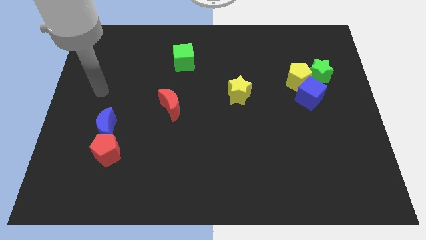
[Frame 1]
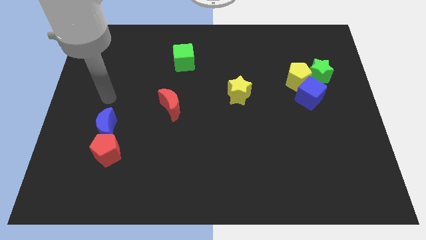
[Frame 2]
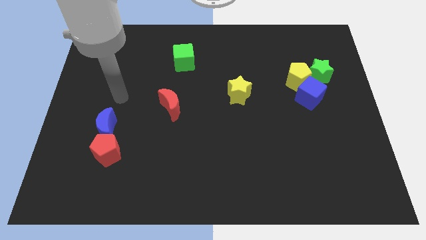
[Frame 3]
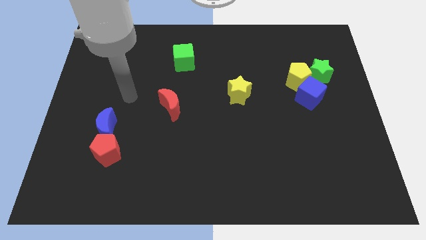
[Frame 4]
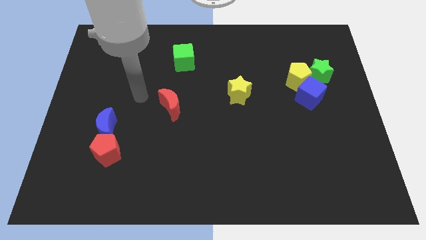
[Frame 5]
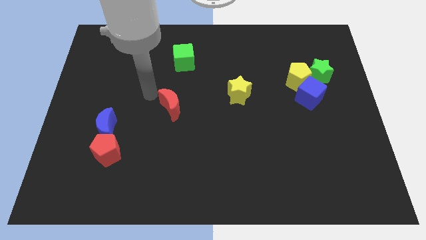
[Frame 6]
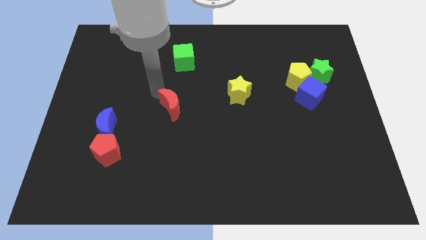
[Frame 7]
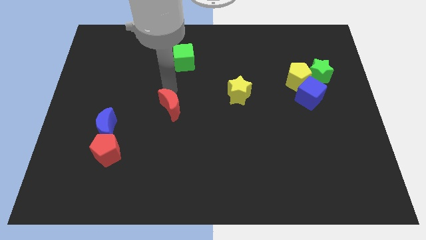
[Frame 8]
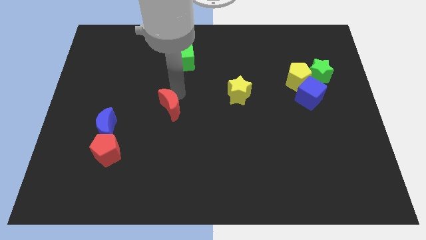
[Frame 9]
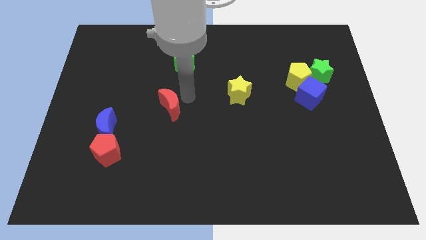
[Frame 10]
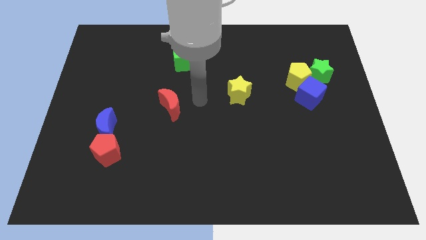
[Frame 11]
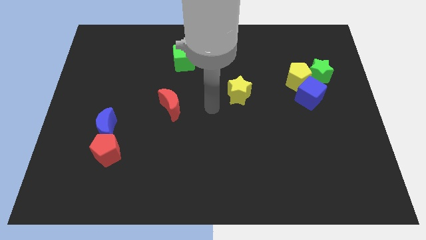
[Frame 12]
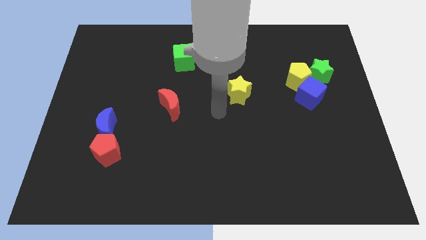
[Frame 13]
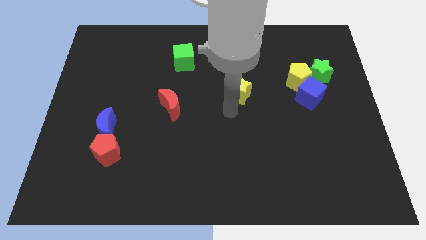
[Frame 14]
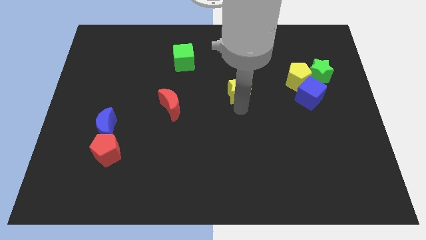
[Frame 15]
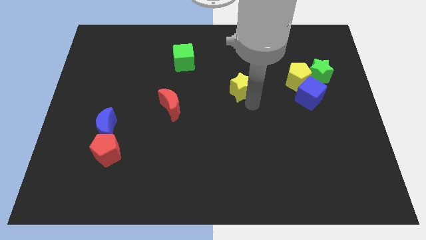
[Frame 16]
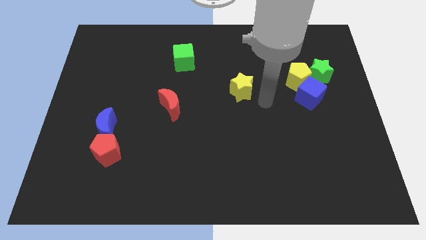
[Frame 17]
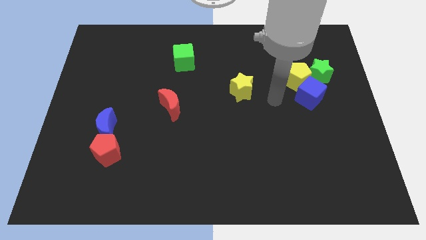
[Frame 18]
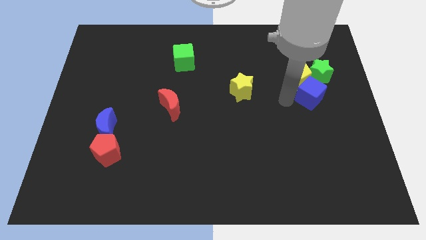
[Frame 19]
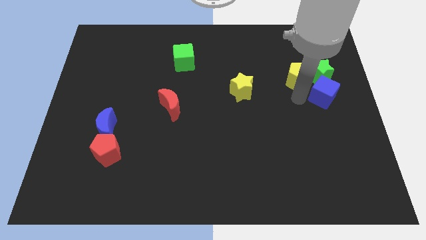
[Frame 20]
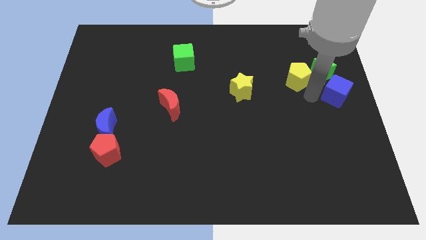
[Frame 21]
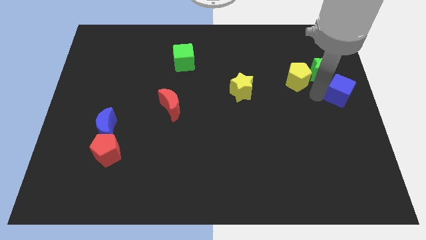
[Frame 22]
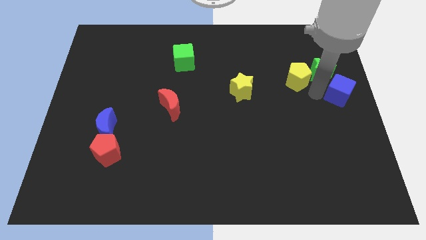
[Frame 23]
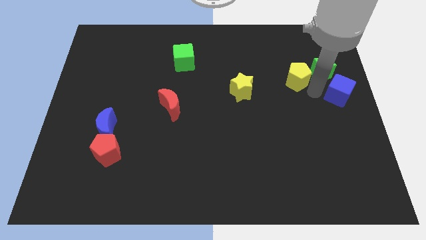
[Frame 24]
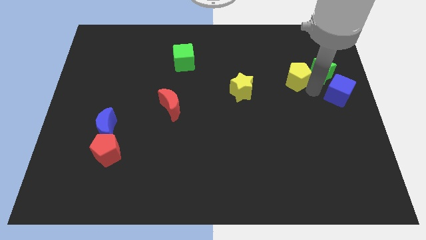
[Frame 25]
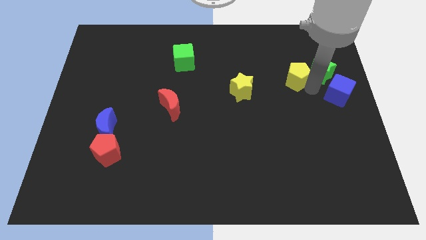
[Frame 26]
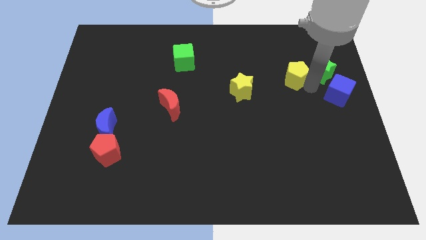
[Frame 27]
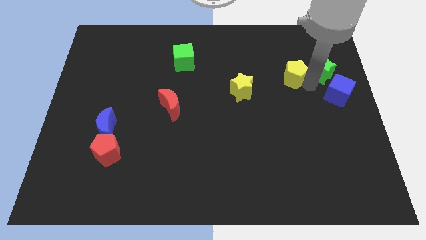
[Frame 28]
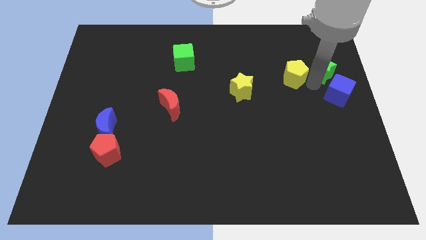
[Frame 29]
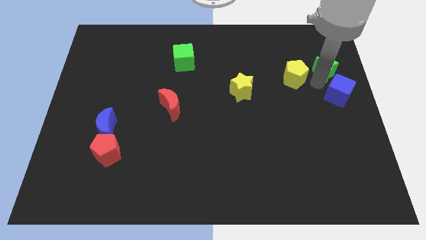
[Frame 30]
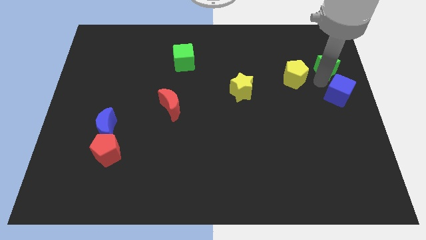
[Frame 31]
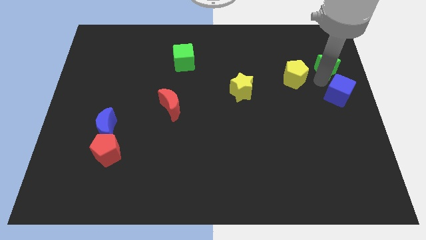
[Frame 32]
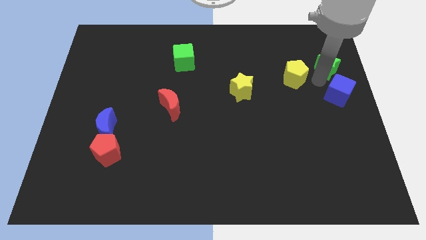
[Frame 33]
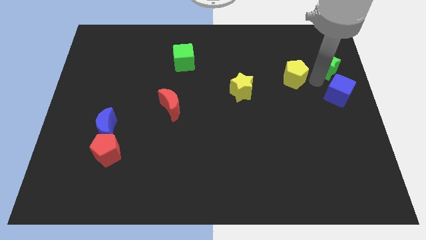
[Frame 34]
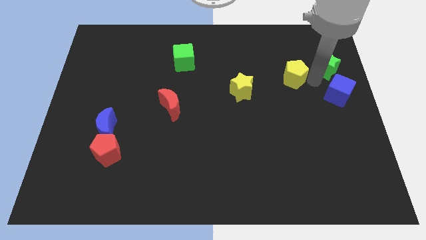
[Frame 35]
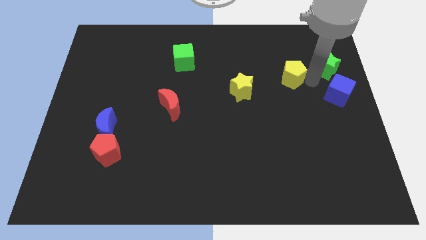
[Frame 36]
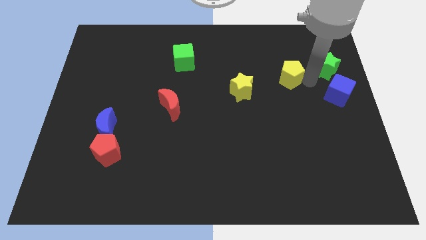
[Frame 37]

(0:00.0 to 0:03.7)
separate the yellow pentagon from the green star and blue cube

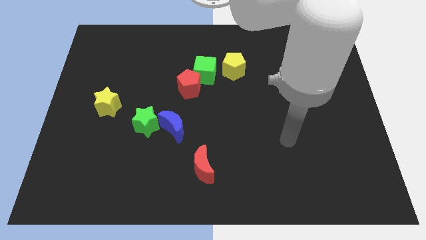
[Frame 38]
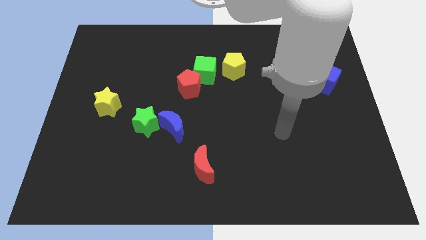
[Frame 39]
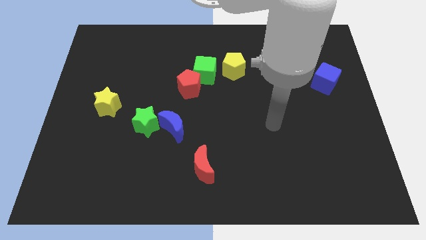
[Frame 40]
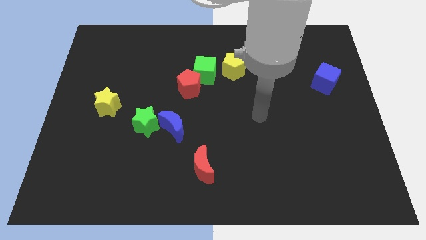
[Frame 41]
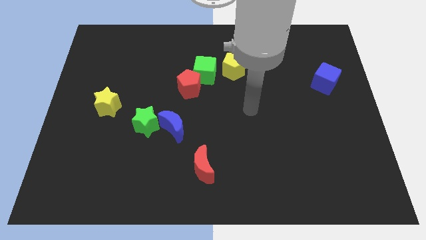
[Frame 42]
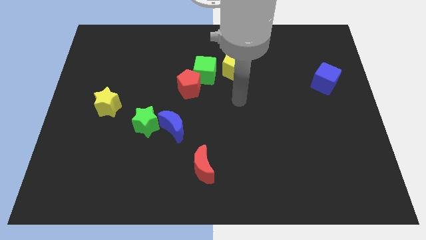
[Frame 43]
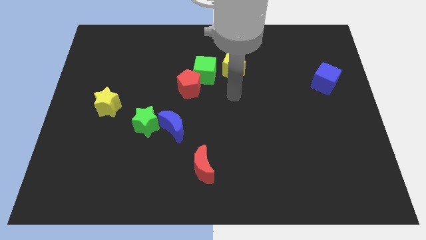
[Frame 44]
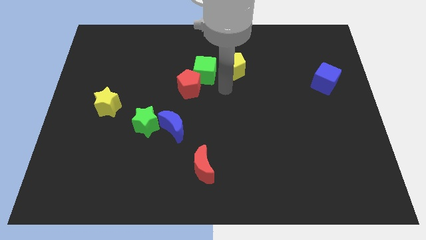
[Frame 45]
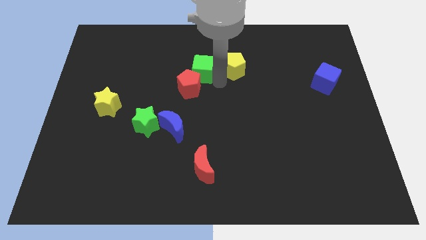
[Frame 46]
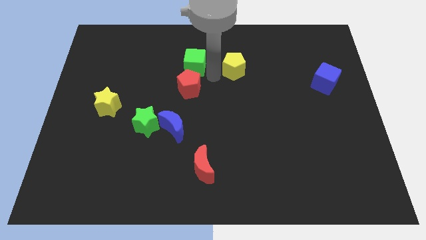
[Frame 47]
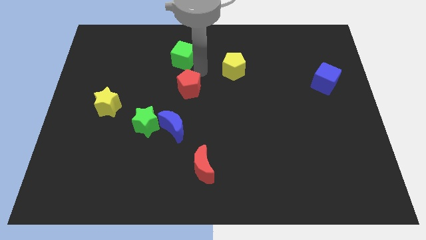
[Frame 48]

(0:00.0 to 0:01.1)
separate the red pentagon from the green cube

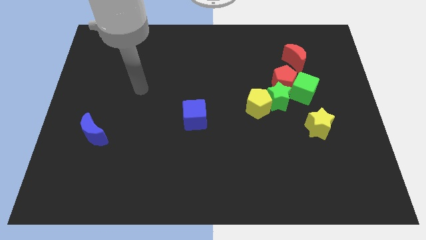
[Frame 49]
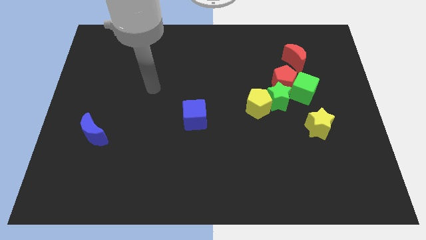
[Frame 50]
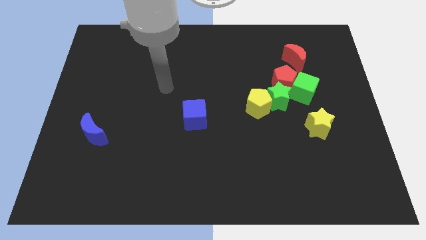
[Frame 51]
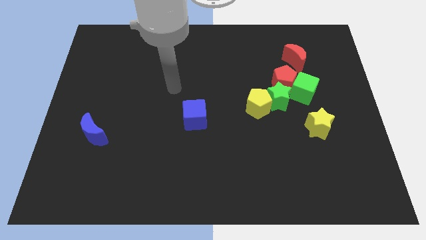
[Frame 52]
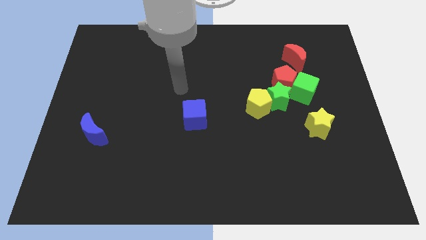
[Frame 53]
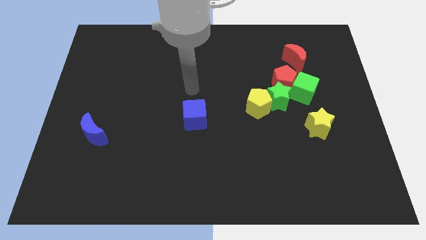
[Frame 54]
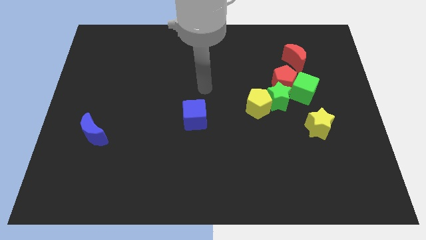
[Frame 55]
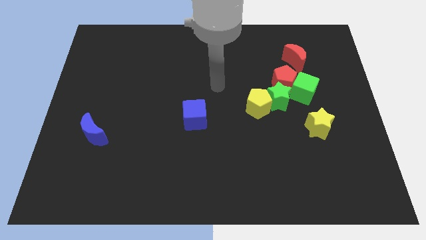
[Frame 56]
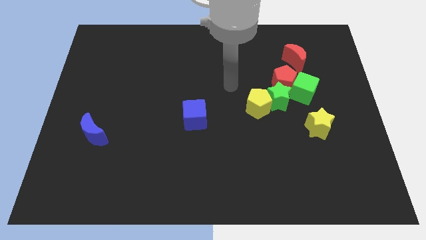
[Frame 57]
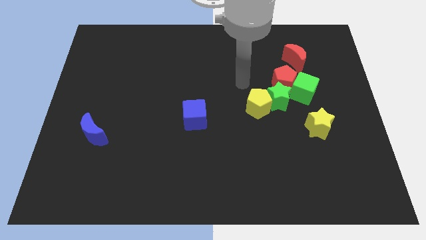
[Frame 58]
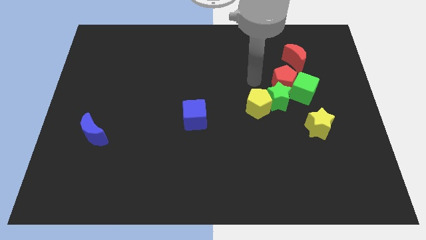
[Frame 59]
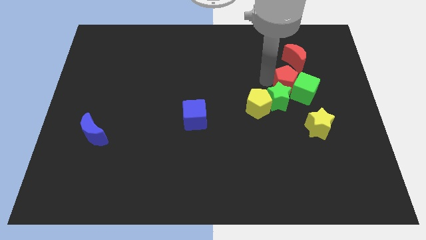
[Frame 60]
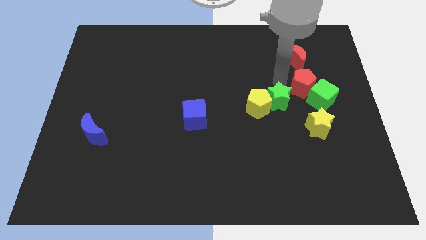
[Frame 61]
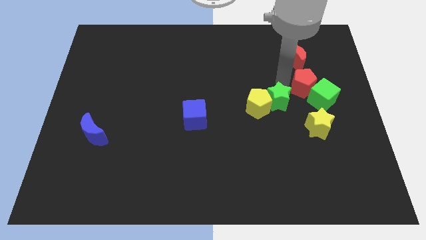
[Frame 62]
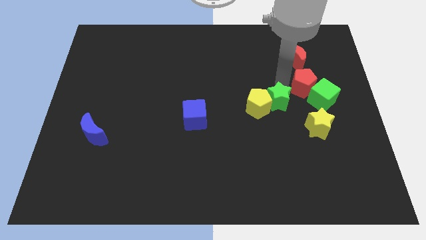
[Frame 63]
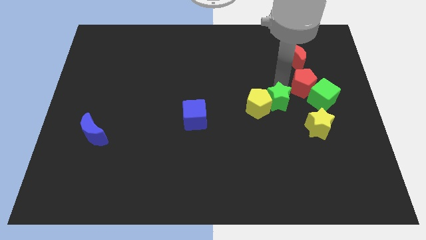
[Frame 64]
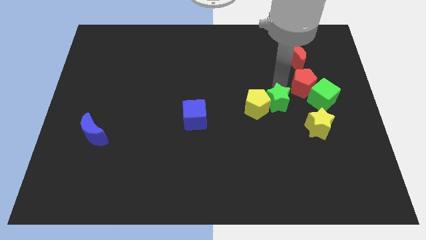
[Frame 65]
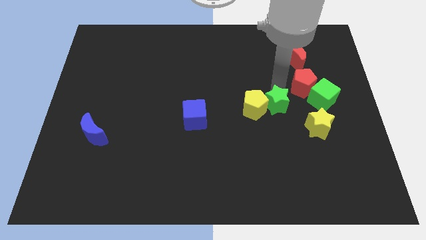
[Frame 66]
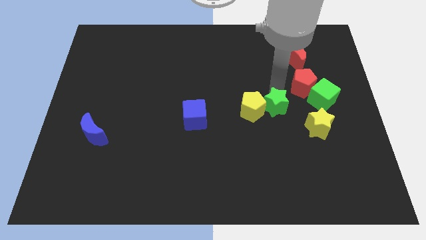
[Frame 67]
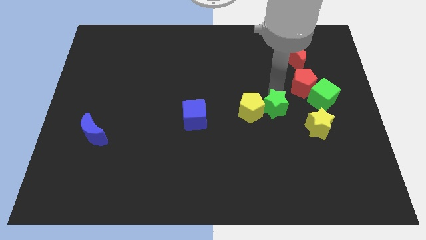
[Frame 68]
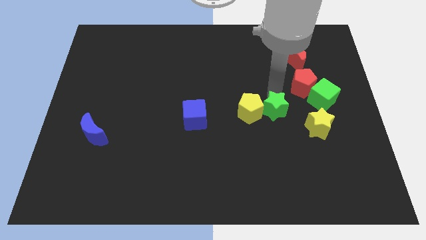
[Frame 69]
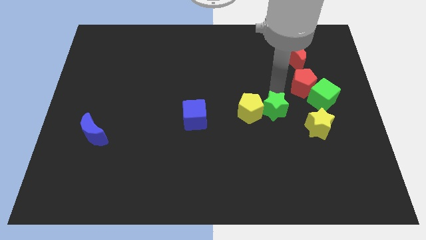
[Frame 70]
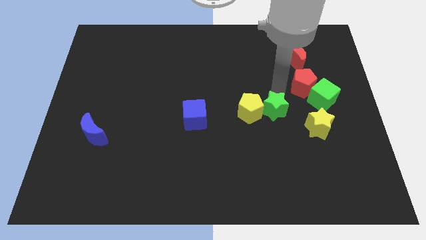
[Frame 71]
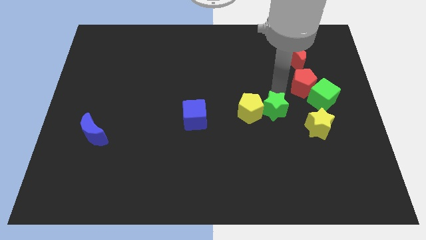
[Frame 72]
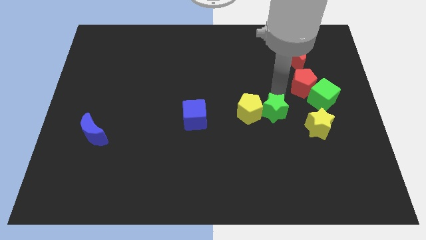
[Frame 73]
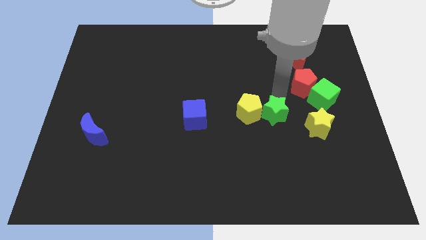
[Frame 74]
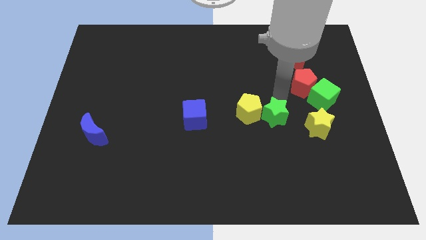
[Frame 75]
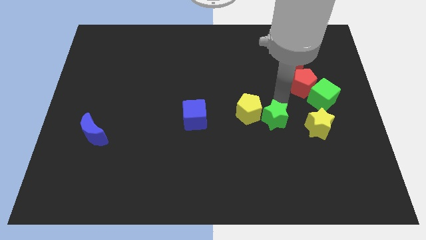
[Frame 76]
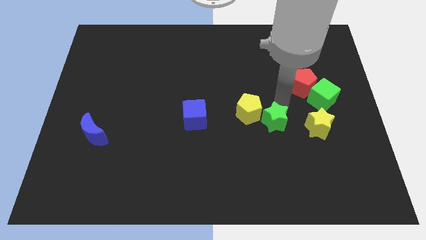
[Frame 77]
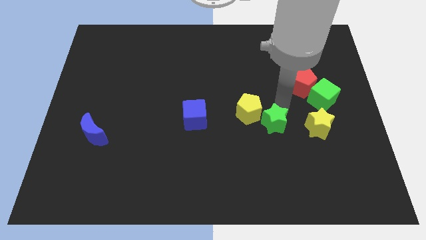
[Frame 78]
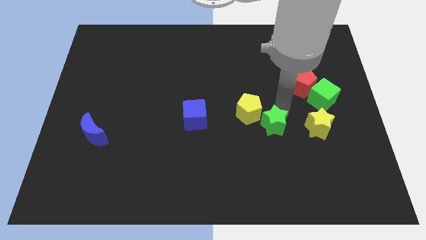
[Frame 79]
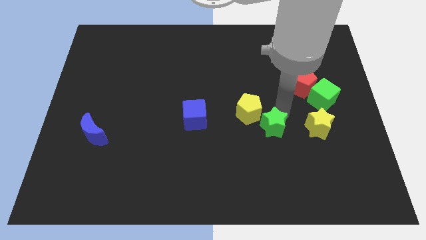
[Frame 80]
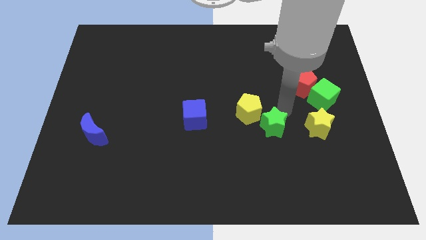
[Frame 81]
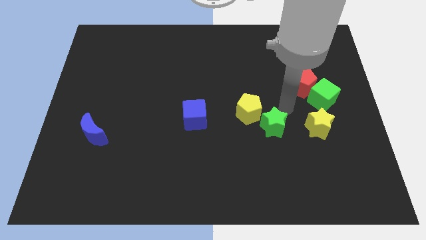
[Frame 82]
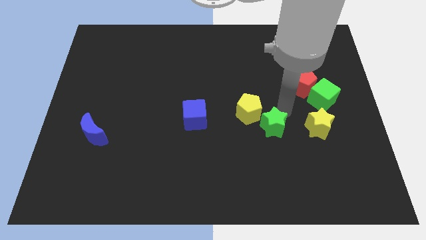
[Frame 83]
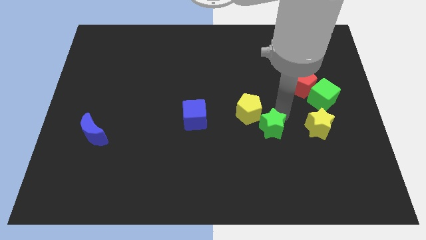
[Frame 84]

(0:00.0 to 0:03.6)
pull the green star apart from the yellow pentagon, red pentagon, and green cube

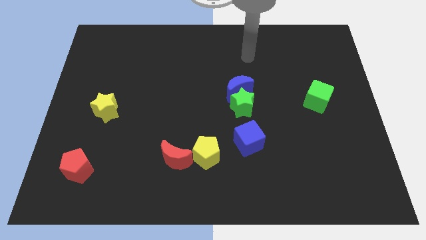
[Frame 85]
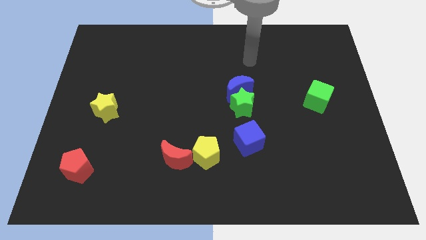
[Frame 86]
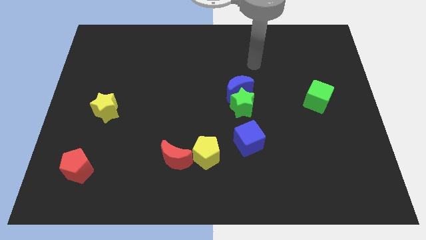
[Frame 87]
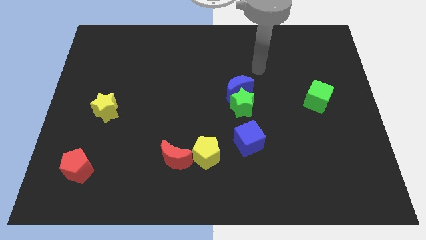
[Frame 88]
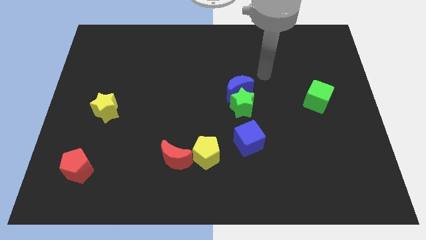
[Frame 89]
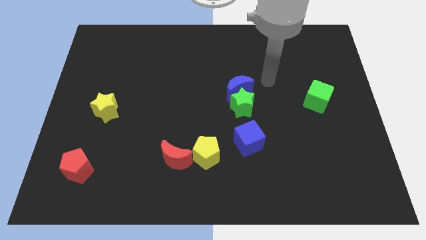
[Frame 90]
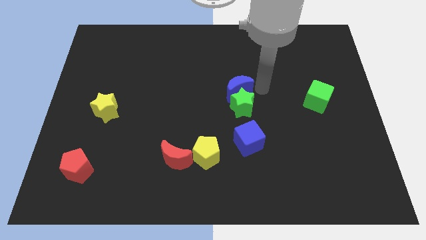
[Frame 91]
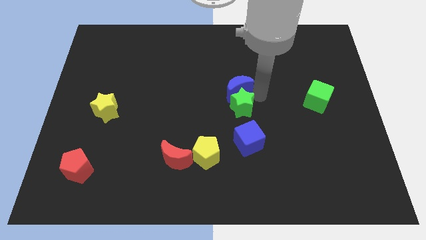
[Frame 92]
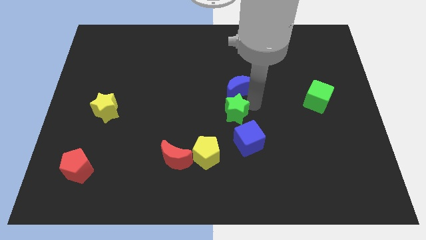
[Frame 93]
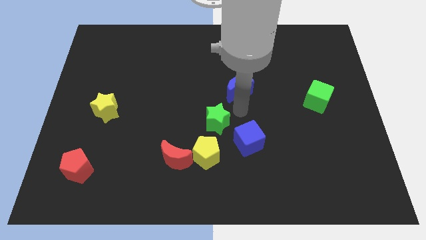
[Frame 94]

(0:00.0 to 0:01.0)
pull the blue moon apart from the green star
